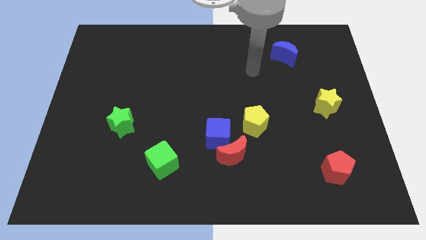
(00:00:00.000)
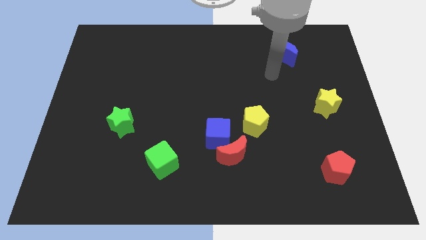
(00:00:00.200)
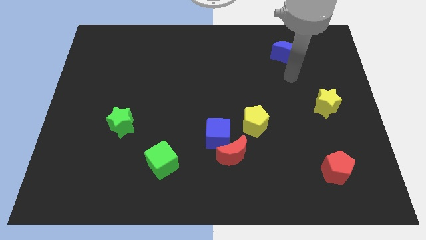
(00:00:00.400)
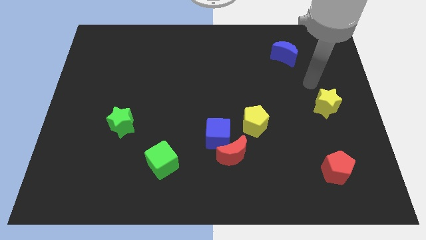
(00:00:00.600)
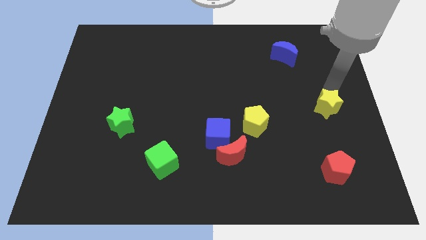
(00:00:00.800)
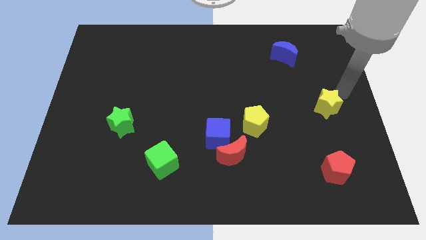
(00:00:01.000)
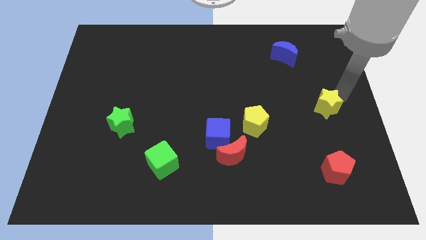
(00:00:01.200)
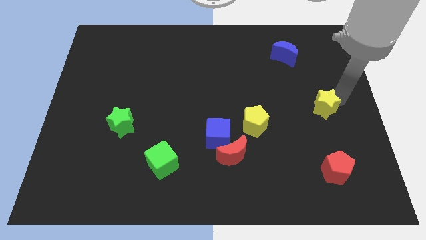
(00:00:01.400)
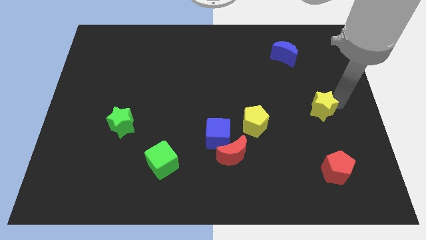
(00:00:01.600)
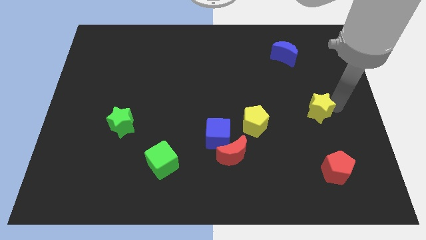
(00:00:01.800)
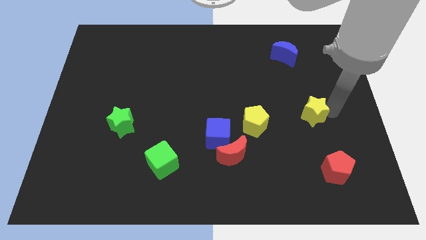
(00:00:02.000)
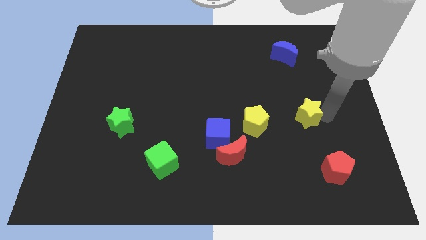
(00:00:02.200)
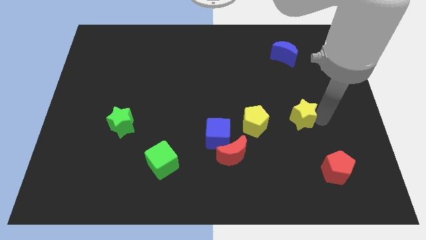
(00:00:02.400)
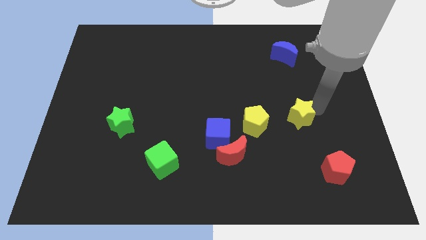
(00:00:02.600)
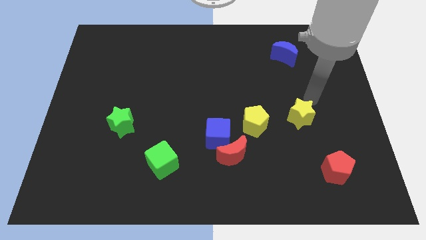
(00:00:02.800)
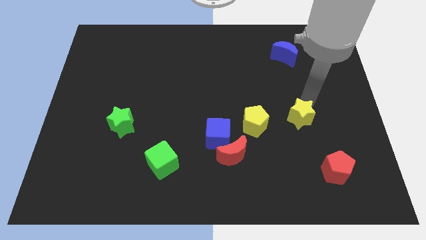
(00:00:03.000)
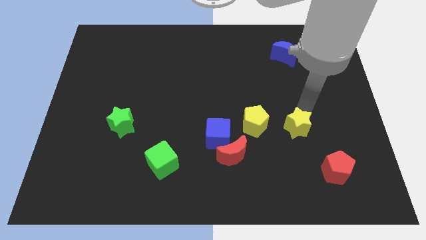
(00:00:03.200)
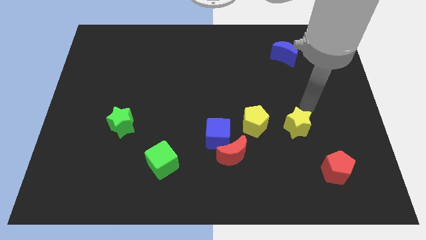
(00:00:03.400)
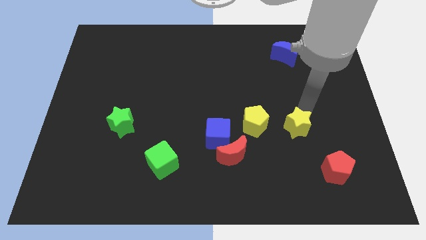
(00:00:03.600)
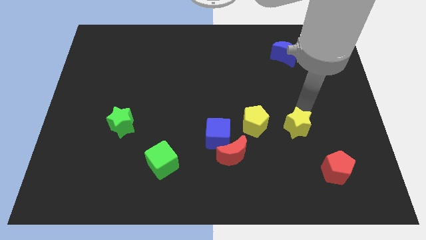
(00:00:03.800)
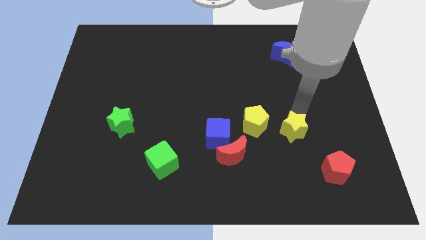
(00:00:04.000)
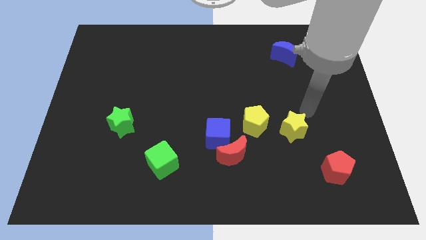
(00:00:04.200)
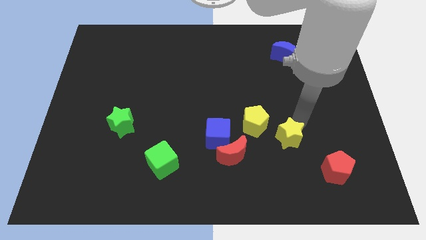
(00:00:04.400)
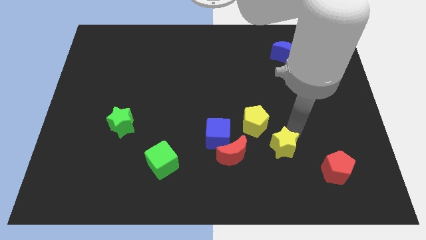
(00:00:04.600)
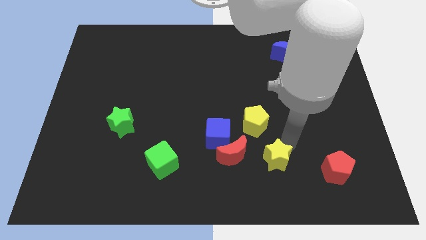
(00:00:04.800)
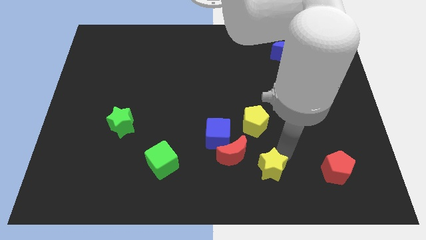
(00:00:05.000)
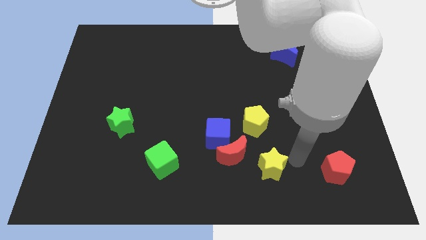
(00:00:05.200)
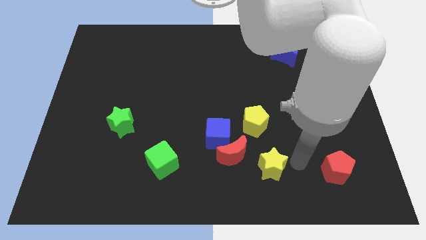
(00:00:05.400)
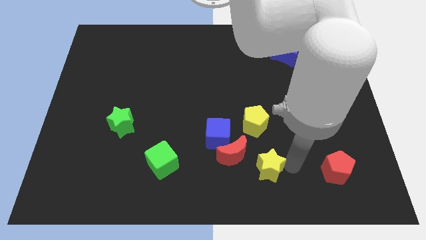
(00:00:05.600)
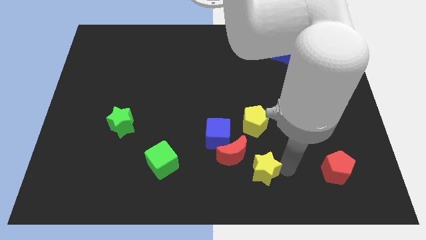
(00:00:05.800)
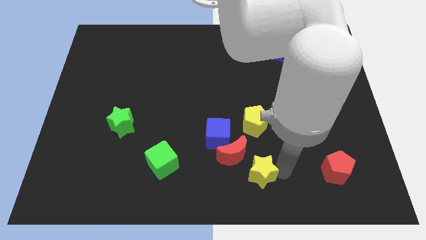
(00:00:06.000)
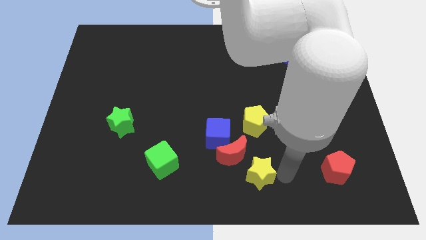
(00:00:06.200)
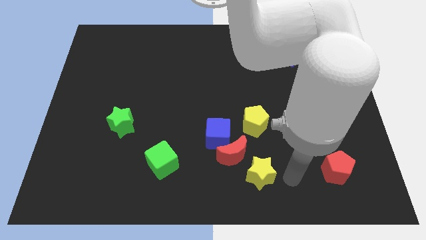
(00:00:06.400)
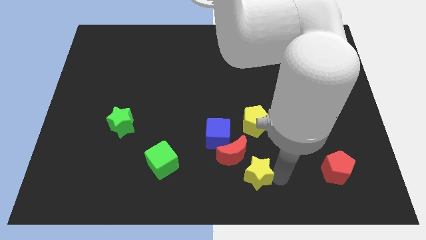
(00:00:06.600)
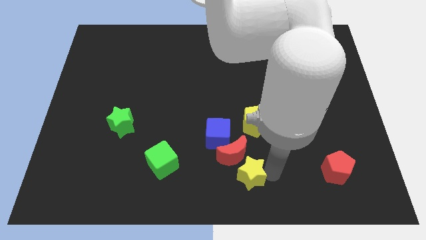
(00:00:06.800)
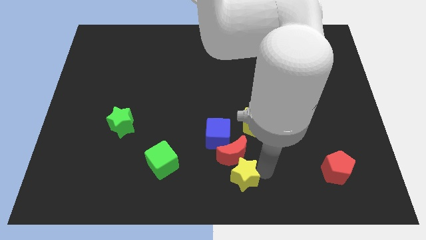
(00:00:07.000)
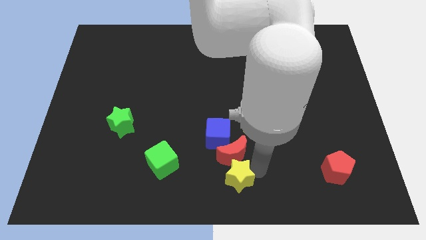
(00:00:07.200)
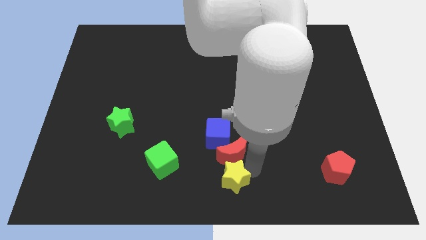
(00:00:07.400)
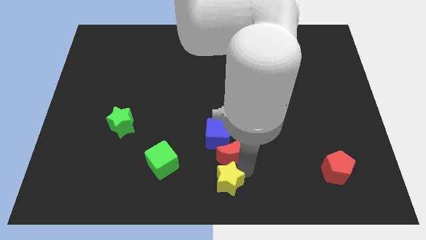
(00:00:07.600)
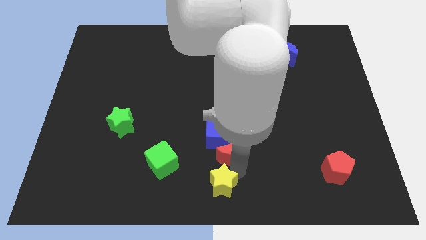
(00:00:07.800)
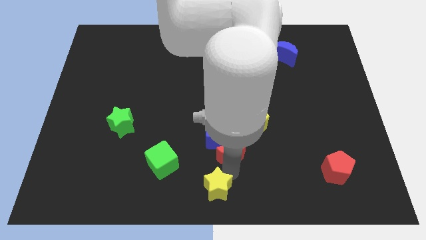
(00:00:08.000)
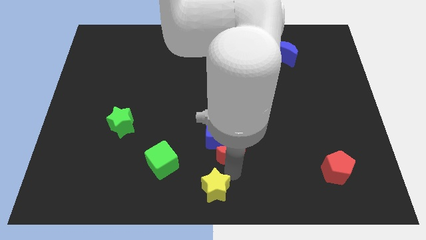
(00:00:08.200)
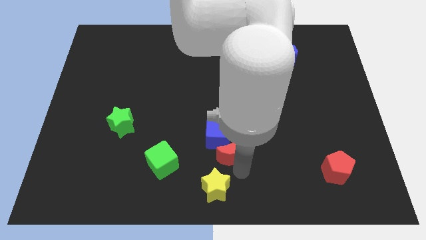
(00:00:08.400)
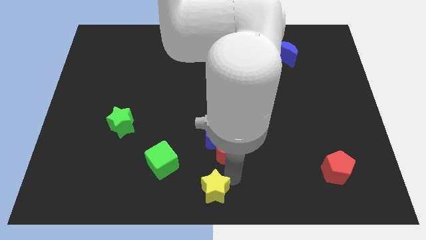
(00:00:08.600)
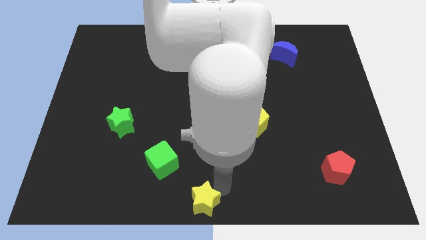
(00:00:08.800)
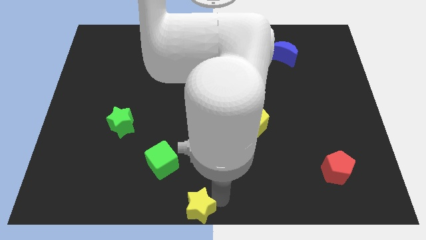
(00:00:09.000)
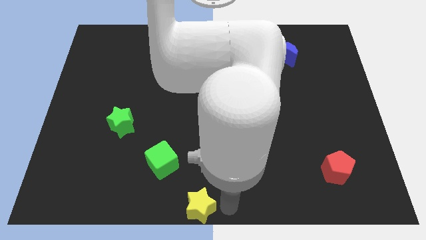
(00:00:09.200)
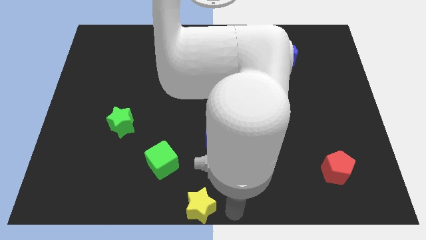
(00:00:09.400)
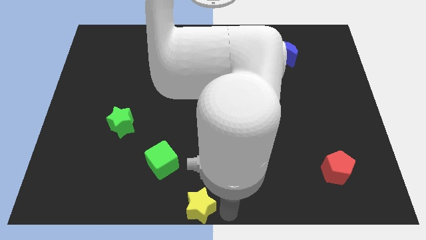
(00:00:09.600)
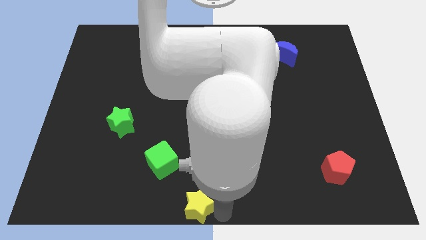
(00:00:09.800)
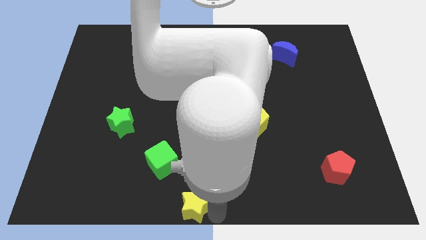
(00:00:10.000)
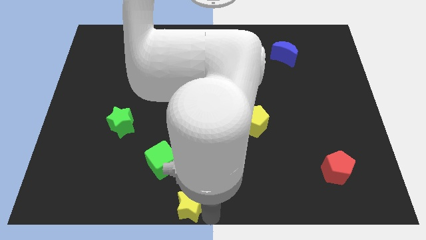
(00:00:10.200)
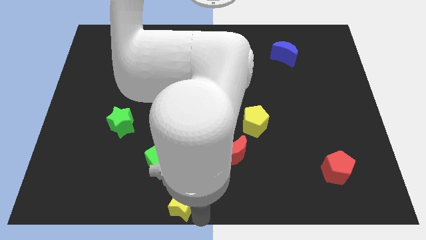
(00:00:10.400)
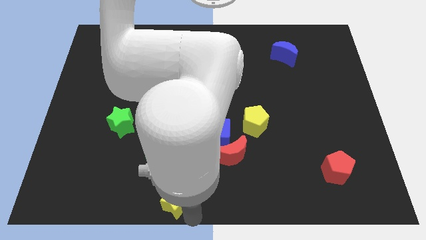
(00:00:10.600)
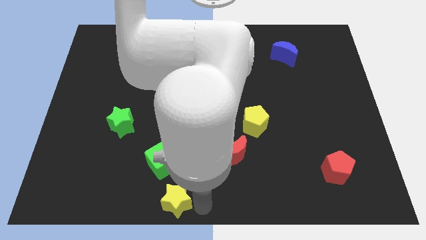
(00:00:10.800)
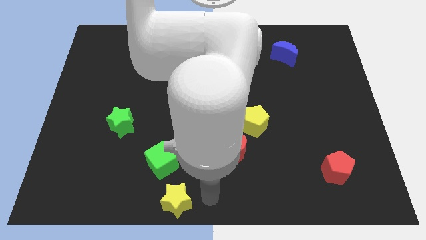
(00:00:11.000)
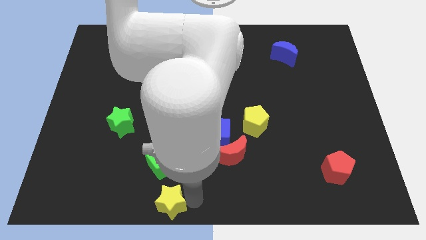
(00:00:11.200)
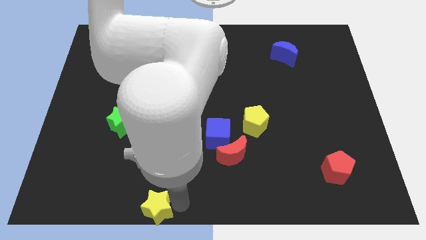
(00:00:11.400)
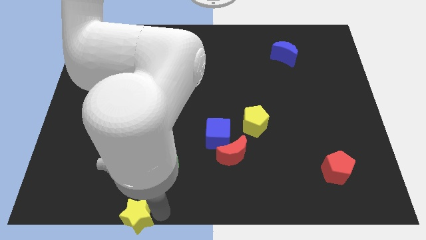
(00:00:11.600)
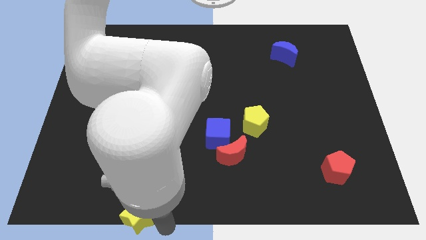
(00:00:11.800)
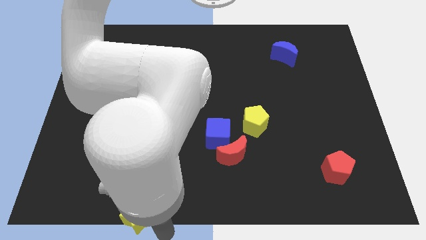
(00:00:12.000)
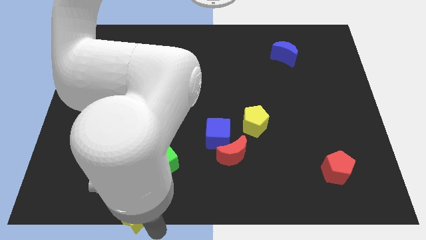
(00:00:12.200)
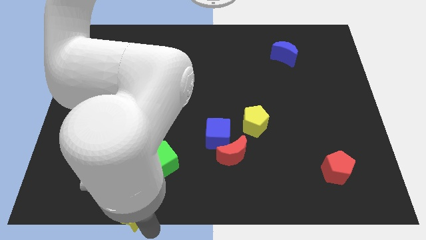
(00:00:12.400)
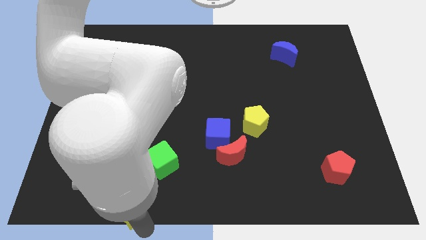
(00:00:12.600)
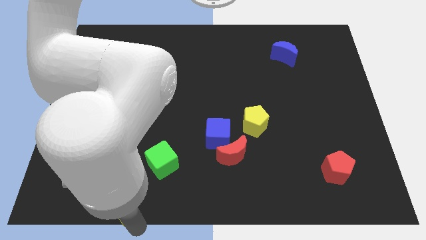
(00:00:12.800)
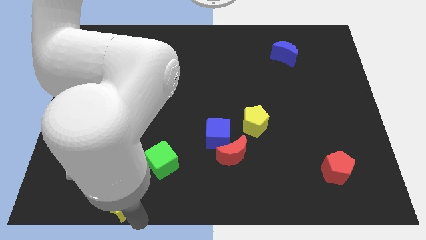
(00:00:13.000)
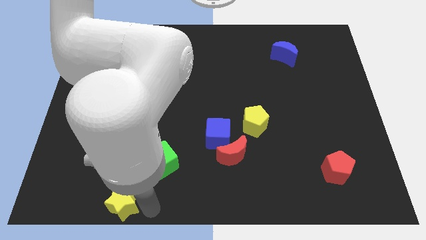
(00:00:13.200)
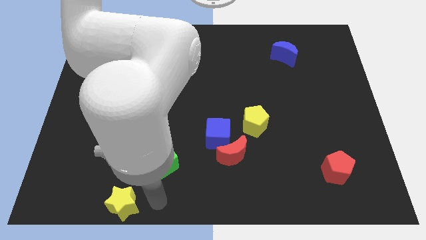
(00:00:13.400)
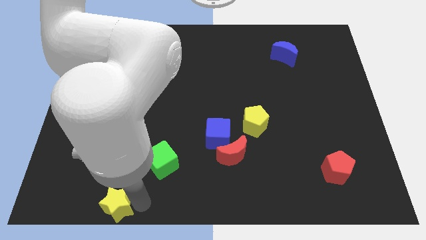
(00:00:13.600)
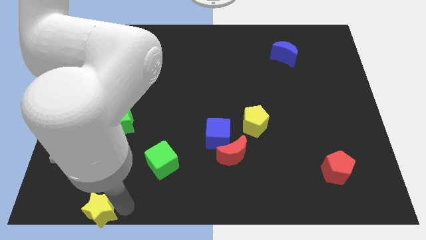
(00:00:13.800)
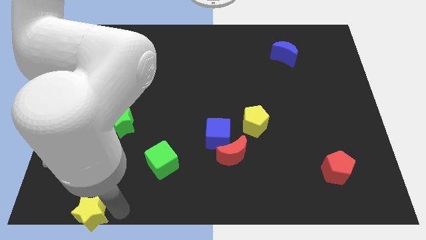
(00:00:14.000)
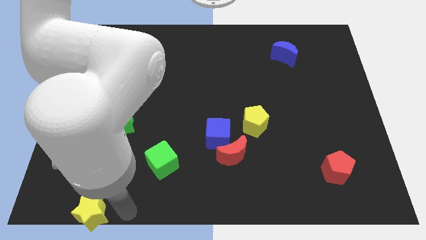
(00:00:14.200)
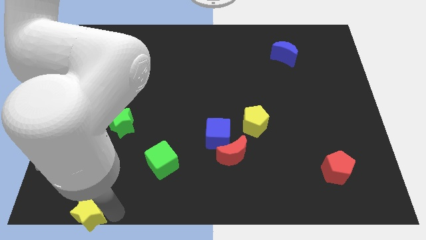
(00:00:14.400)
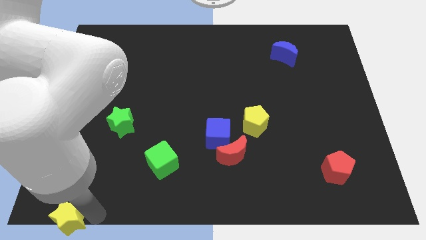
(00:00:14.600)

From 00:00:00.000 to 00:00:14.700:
put the yellow star to the lower left corner
